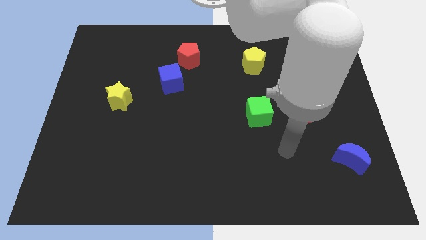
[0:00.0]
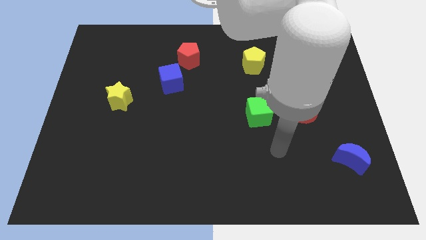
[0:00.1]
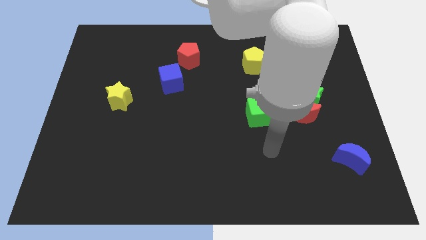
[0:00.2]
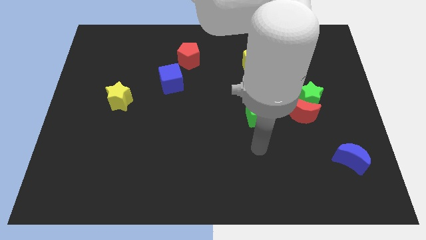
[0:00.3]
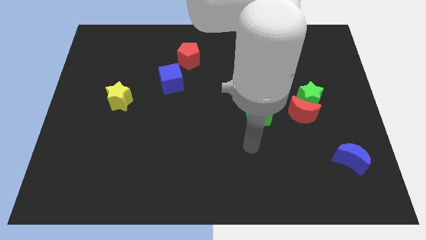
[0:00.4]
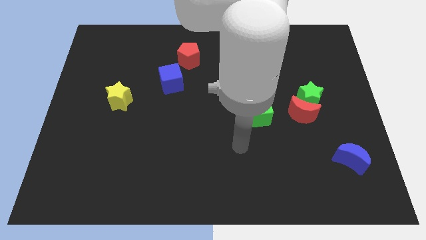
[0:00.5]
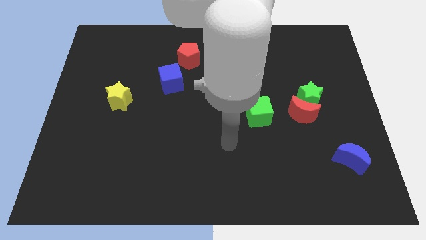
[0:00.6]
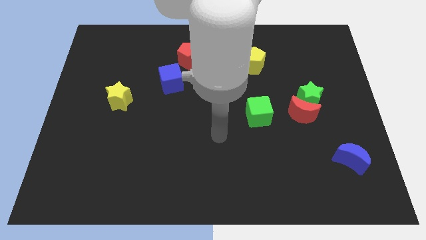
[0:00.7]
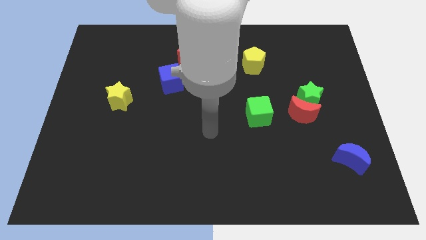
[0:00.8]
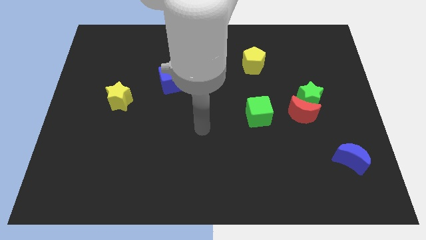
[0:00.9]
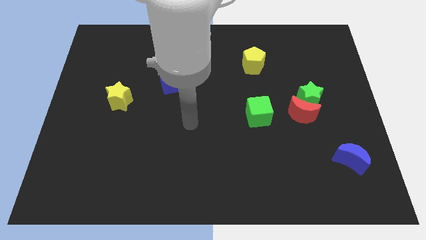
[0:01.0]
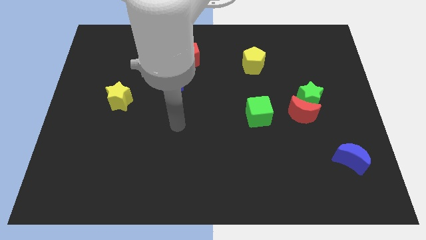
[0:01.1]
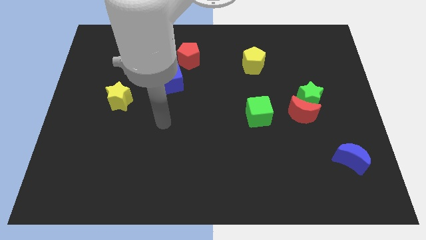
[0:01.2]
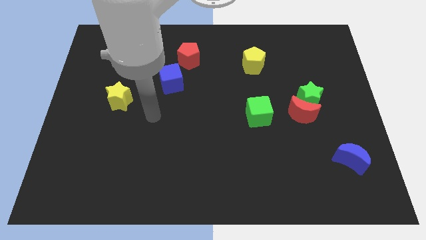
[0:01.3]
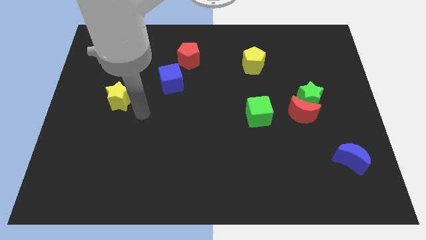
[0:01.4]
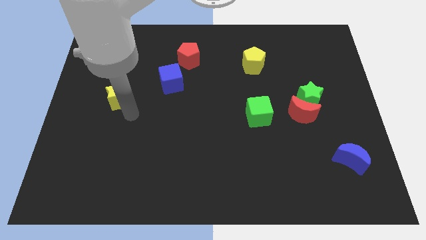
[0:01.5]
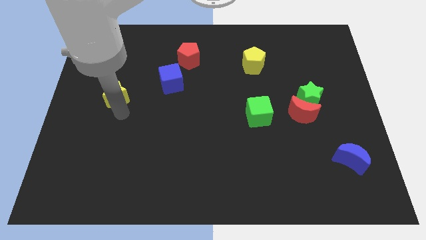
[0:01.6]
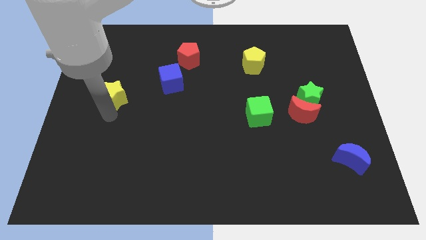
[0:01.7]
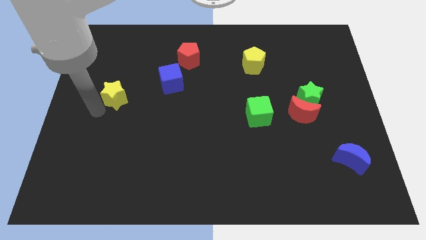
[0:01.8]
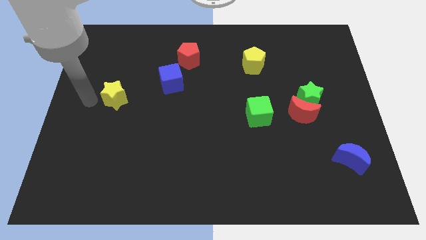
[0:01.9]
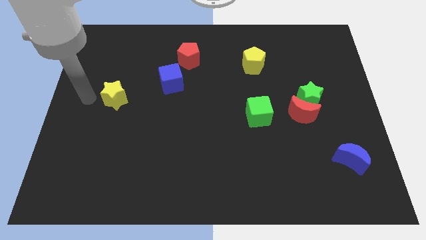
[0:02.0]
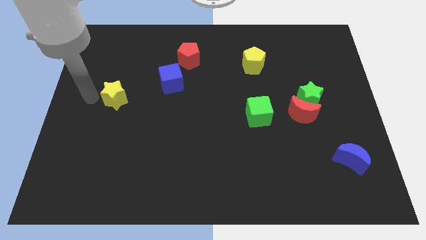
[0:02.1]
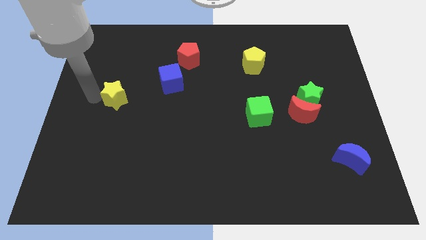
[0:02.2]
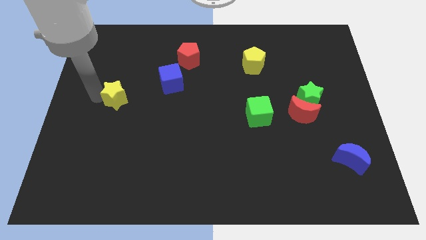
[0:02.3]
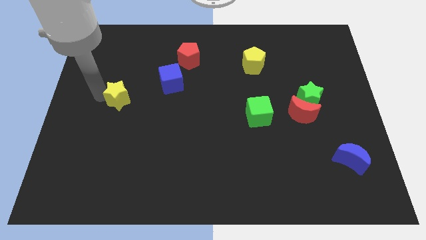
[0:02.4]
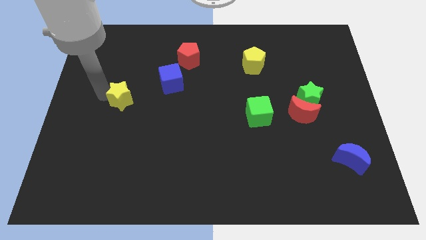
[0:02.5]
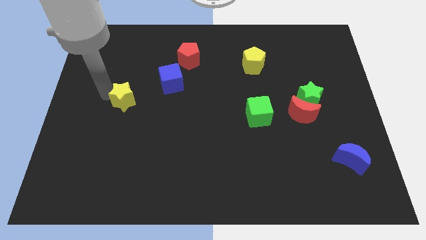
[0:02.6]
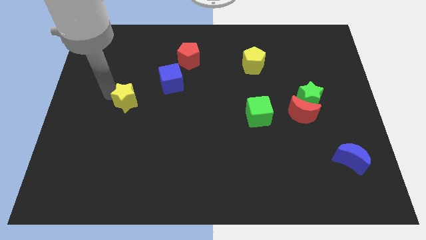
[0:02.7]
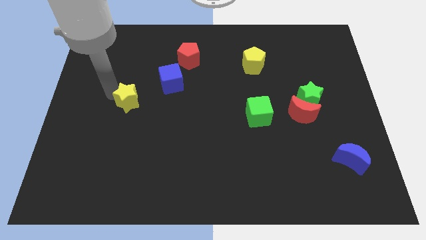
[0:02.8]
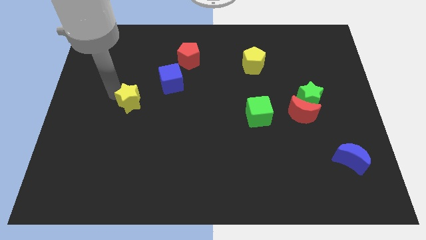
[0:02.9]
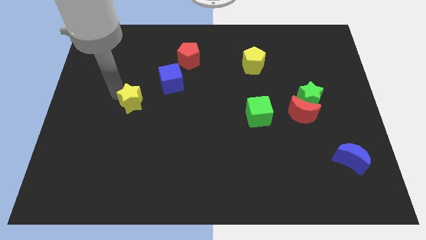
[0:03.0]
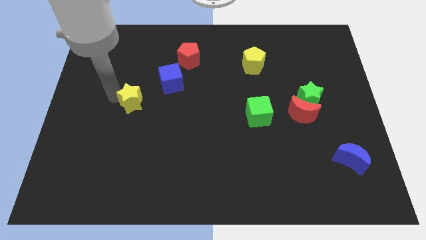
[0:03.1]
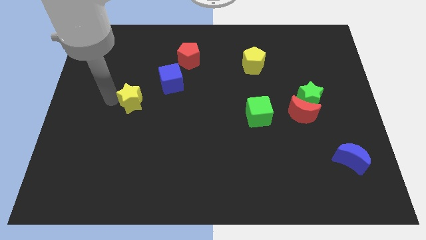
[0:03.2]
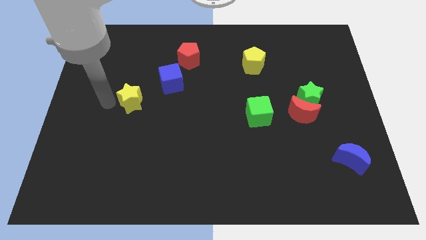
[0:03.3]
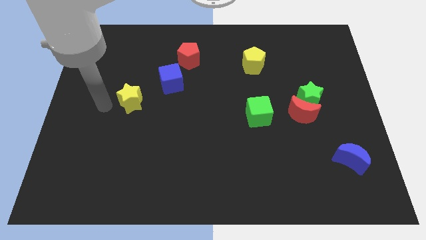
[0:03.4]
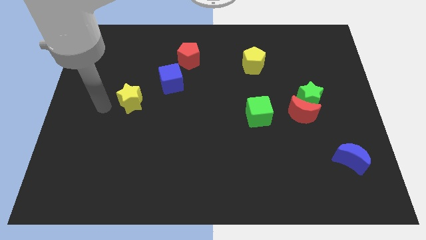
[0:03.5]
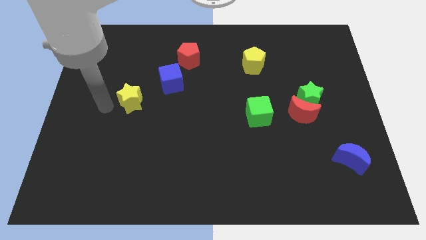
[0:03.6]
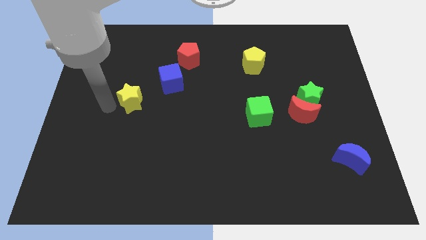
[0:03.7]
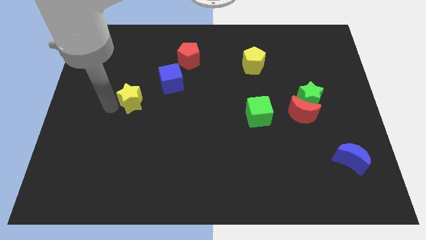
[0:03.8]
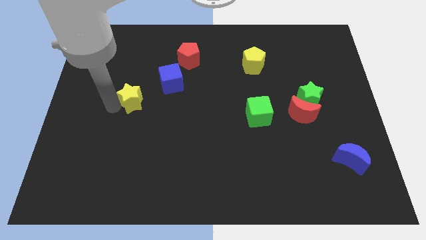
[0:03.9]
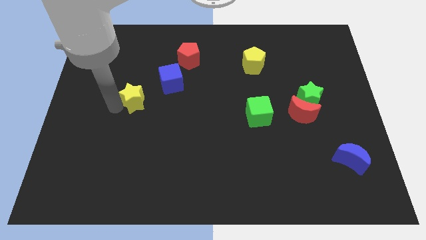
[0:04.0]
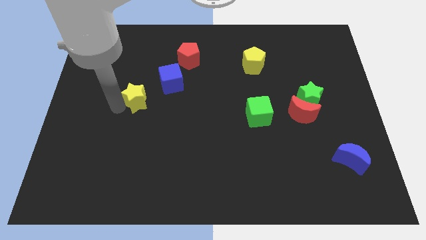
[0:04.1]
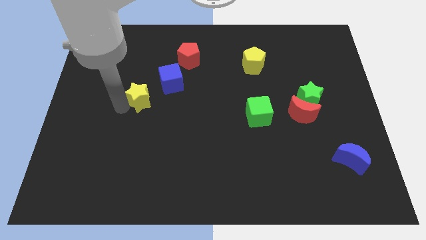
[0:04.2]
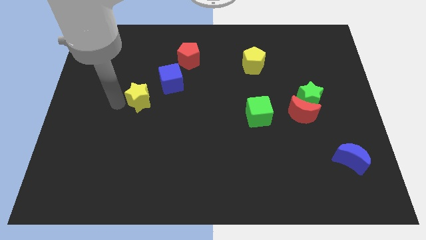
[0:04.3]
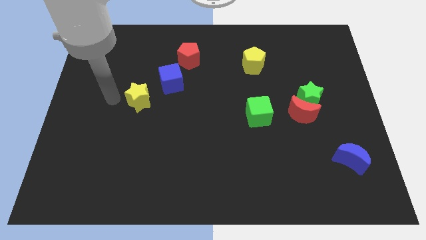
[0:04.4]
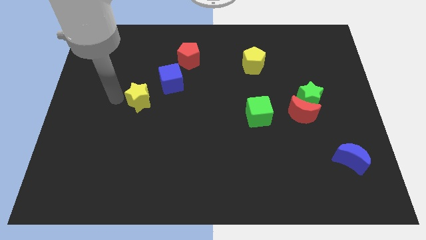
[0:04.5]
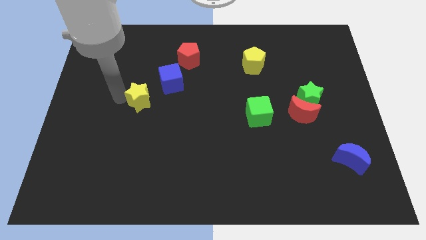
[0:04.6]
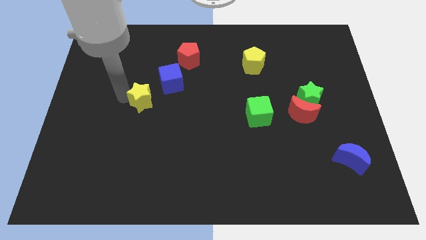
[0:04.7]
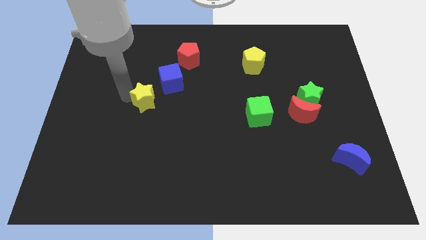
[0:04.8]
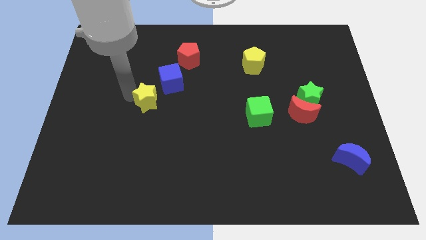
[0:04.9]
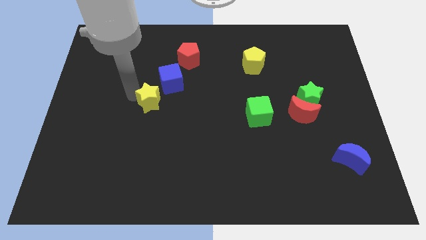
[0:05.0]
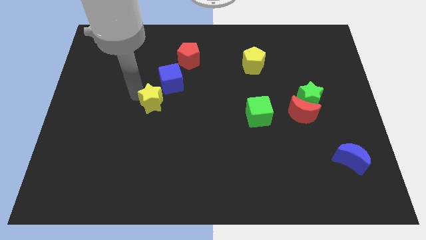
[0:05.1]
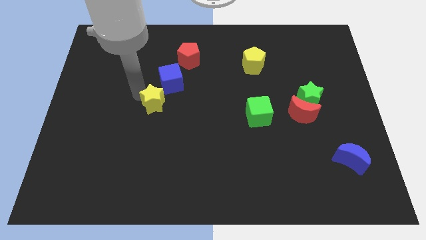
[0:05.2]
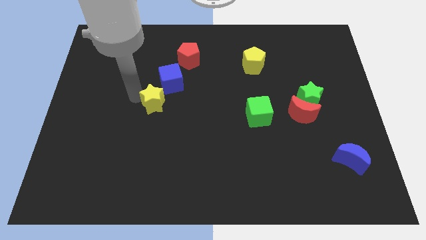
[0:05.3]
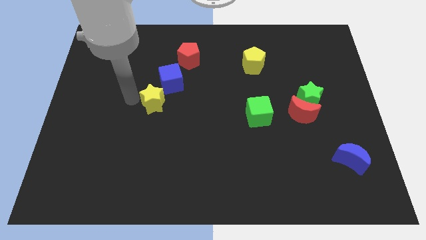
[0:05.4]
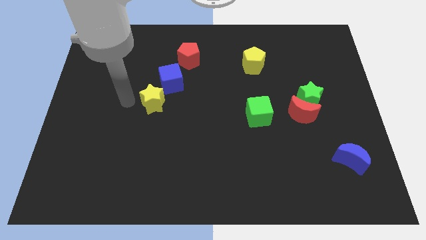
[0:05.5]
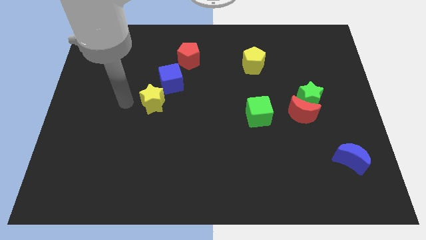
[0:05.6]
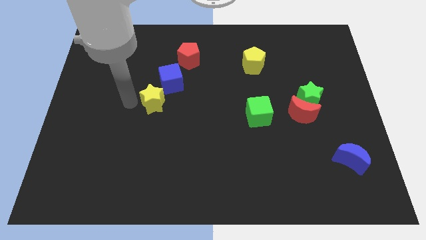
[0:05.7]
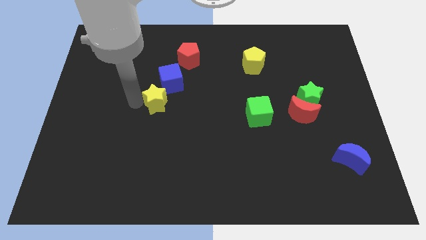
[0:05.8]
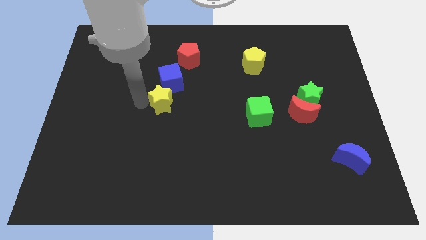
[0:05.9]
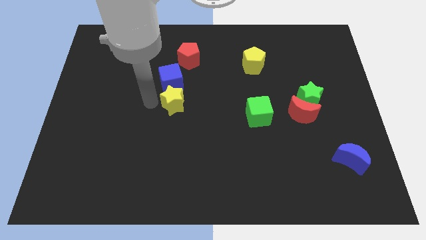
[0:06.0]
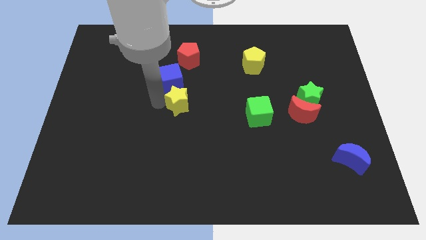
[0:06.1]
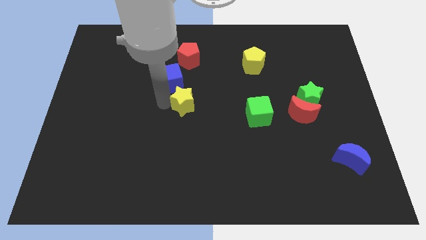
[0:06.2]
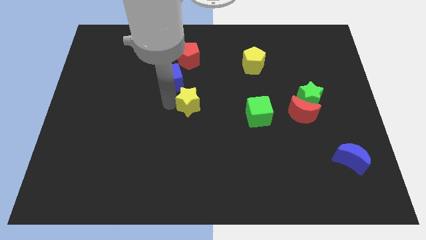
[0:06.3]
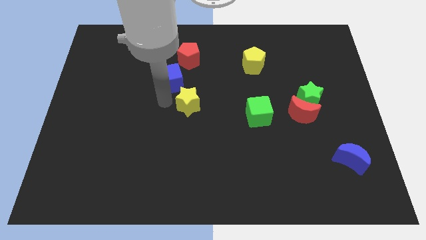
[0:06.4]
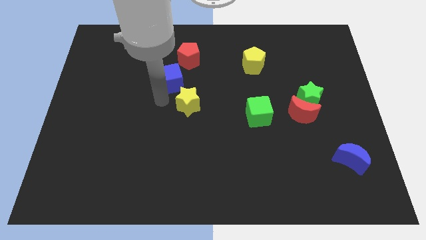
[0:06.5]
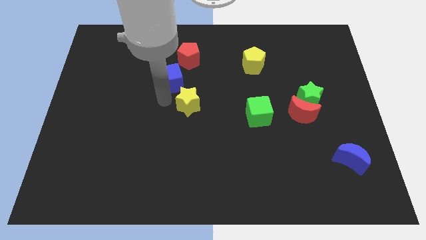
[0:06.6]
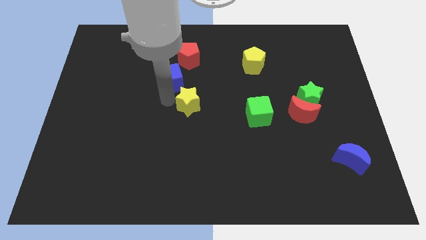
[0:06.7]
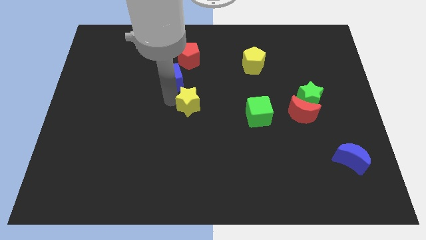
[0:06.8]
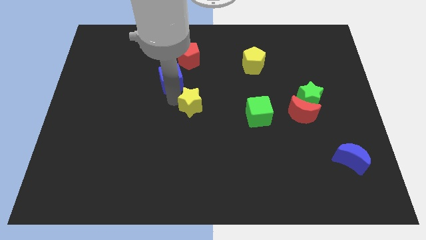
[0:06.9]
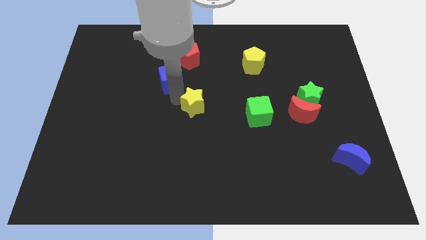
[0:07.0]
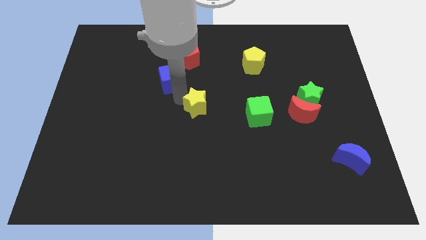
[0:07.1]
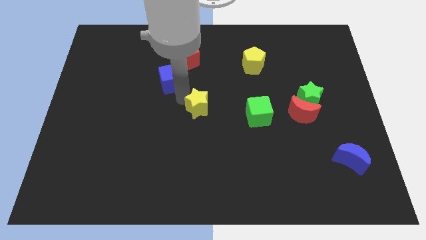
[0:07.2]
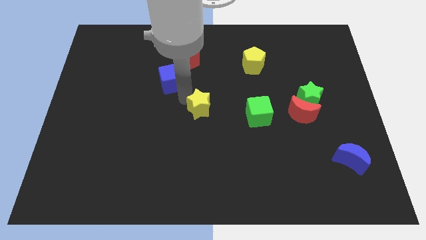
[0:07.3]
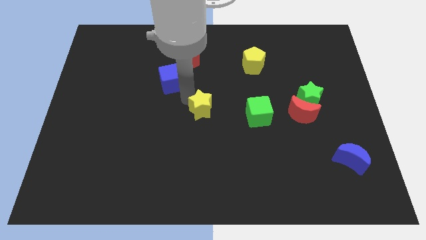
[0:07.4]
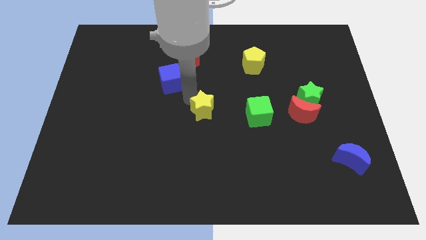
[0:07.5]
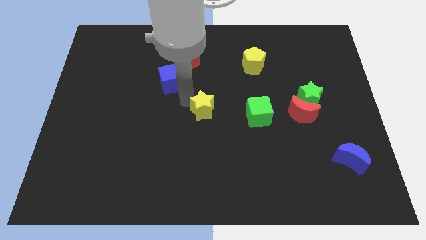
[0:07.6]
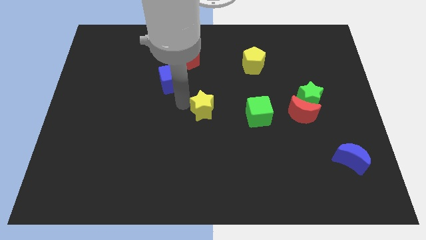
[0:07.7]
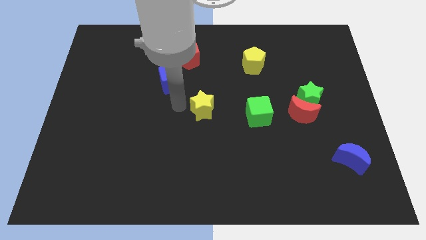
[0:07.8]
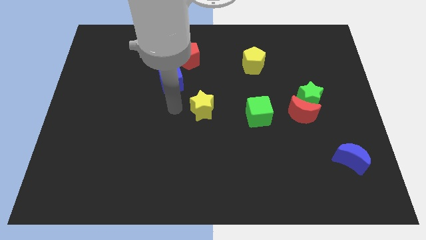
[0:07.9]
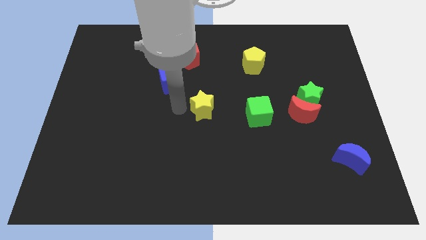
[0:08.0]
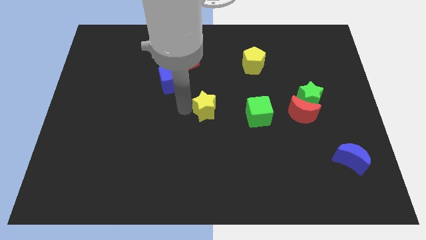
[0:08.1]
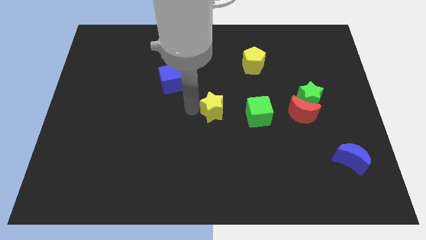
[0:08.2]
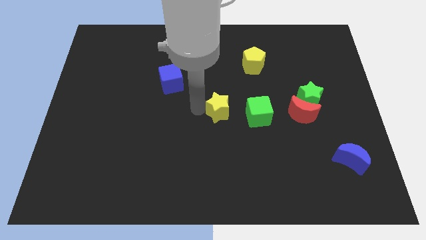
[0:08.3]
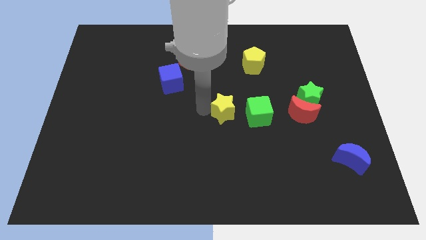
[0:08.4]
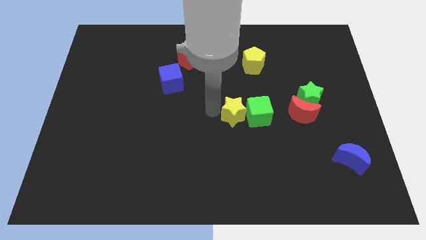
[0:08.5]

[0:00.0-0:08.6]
move the yellow star close to the green cube
